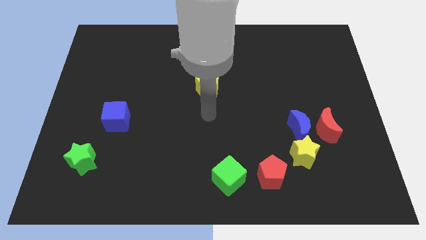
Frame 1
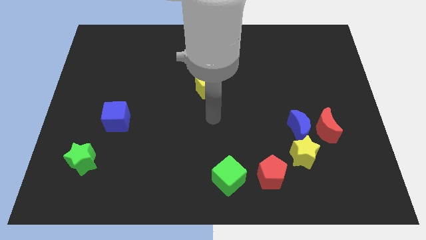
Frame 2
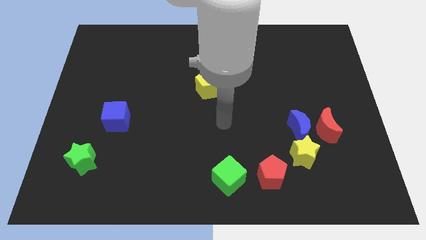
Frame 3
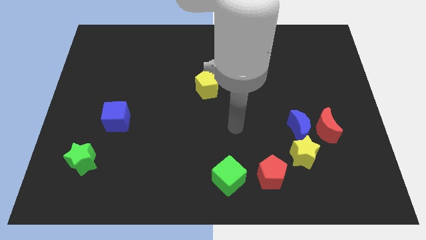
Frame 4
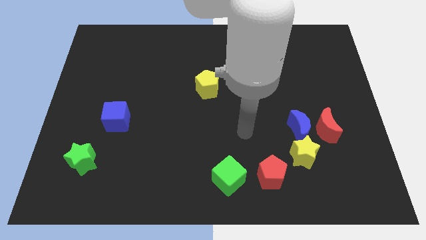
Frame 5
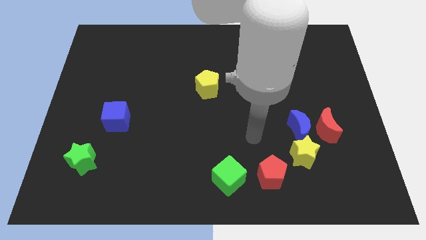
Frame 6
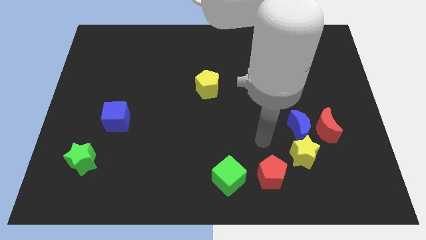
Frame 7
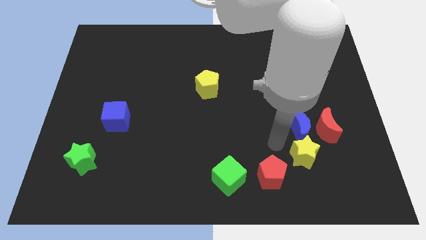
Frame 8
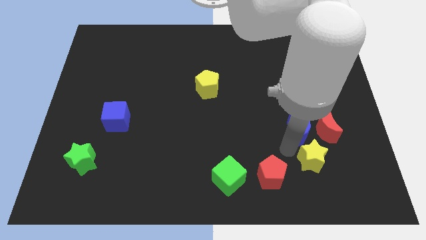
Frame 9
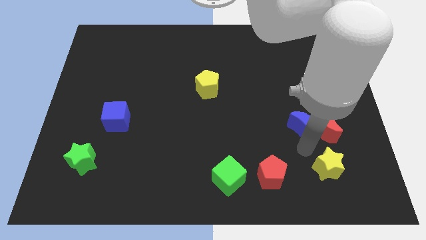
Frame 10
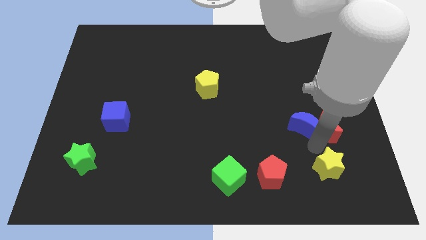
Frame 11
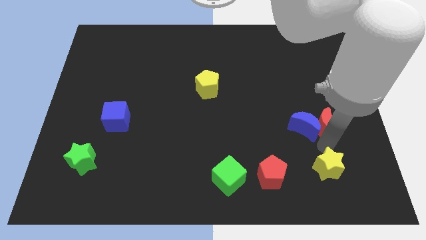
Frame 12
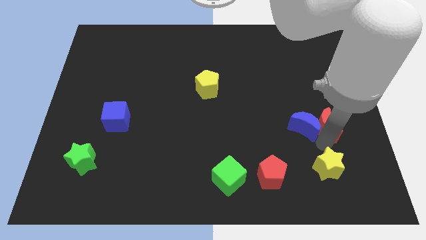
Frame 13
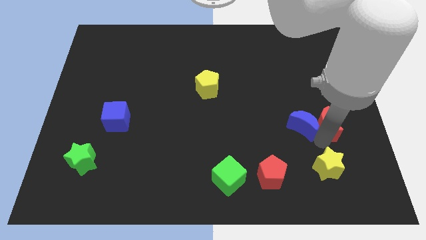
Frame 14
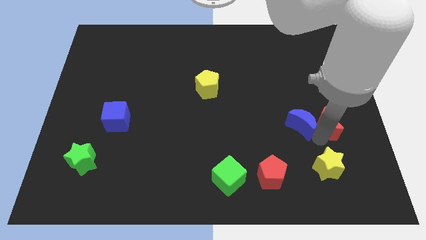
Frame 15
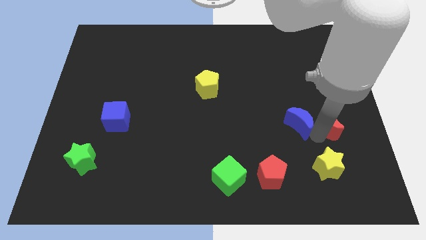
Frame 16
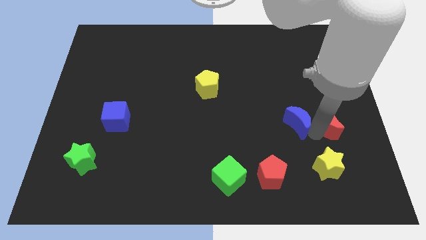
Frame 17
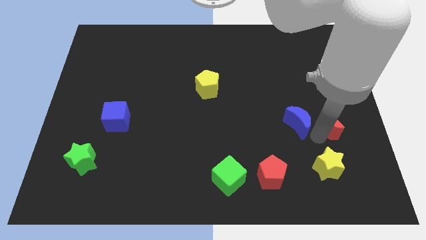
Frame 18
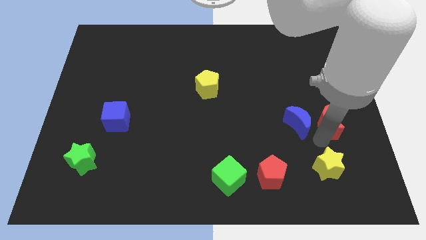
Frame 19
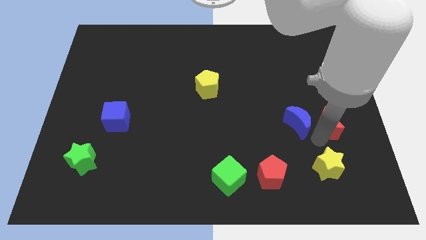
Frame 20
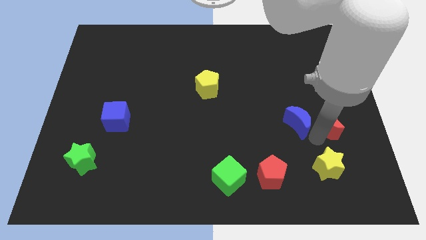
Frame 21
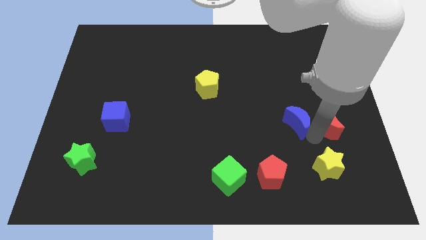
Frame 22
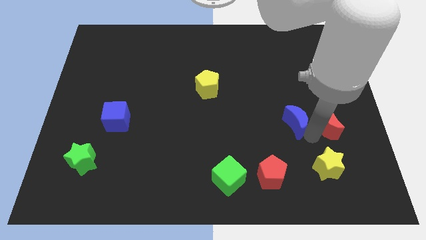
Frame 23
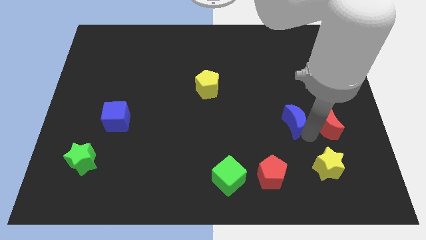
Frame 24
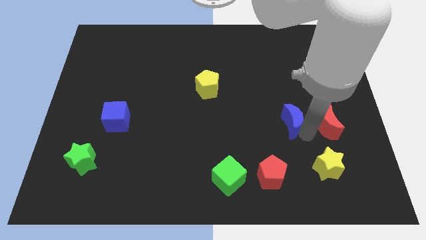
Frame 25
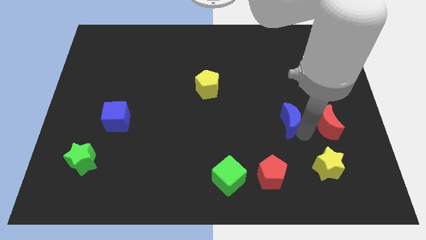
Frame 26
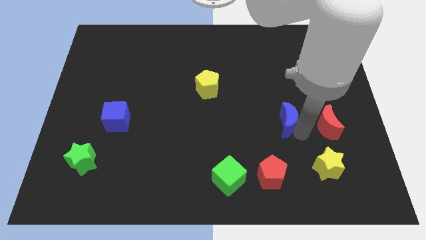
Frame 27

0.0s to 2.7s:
move the blue moon away from the red moon and yellow star

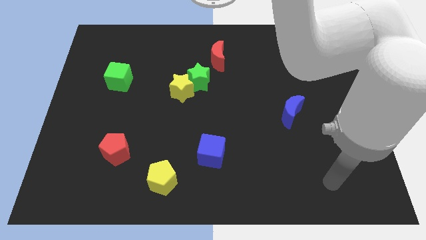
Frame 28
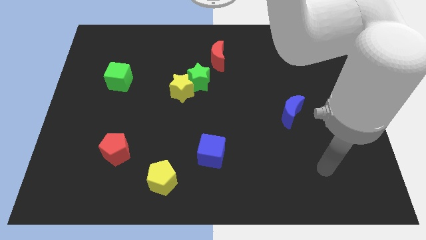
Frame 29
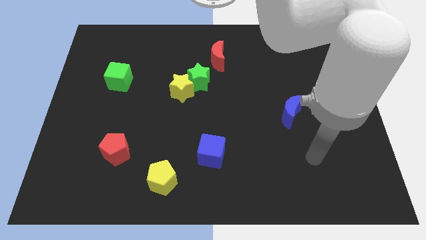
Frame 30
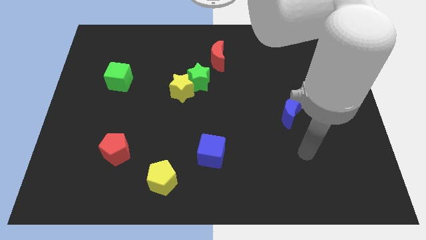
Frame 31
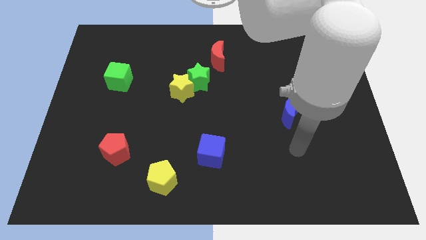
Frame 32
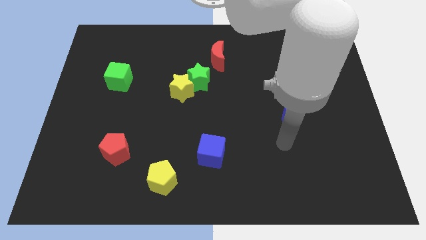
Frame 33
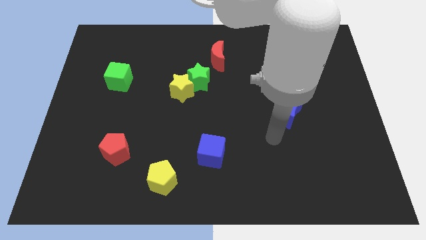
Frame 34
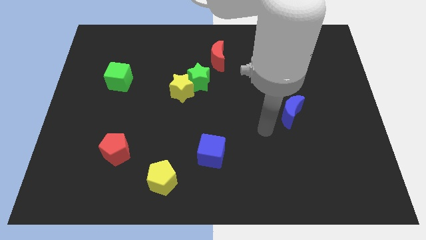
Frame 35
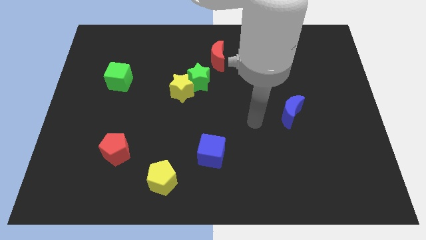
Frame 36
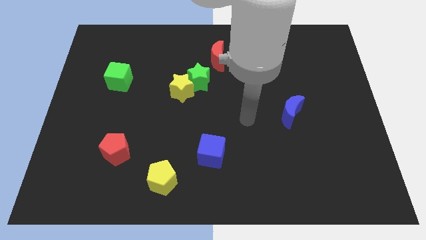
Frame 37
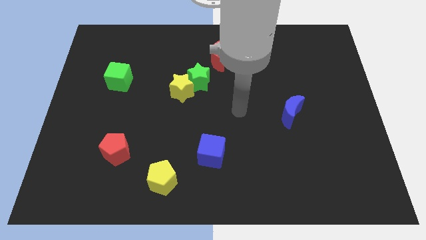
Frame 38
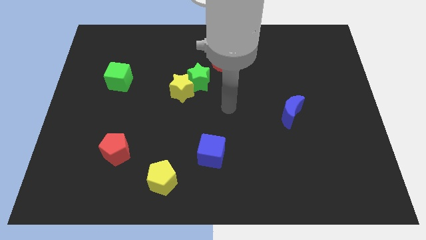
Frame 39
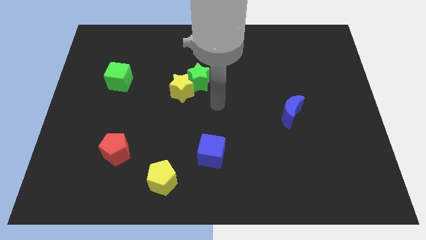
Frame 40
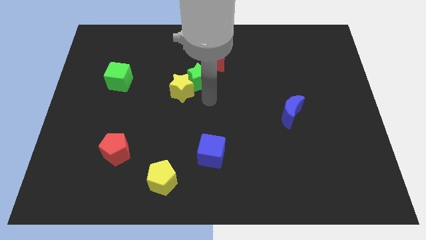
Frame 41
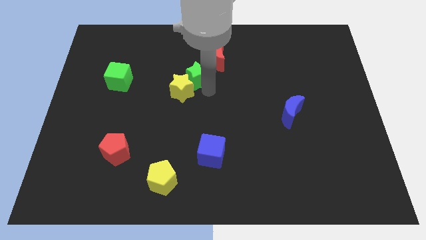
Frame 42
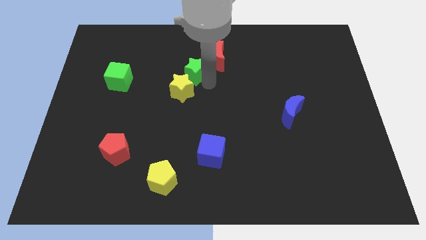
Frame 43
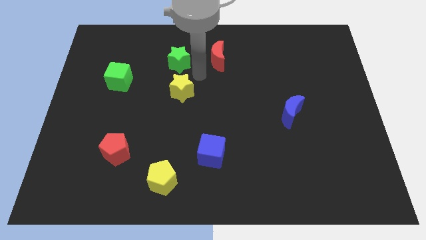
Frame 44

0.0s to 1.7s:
separate the yellow star from the green star

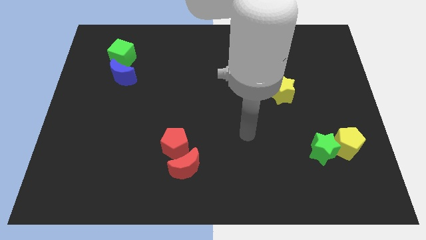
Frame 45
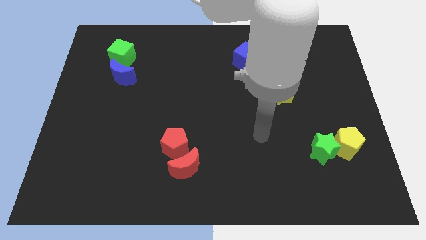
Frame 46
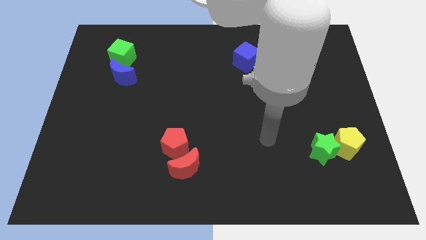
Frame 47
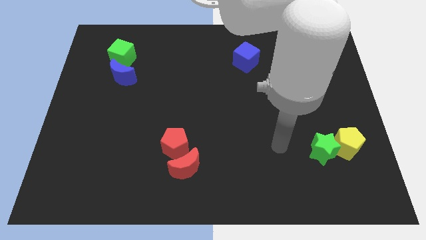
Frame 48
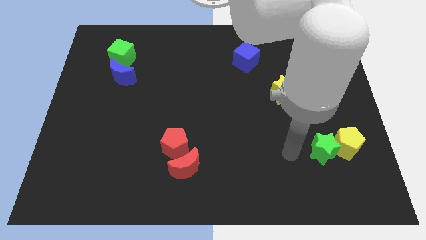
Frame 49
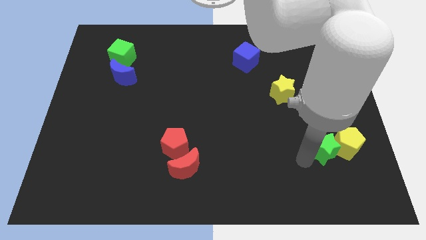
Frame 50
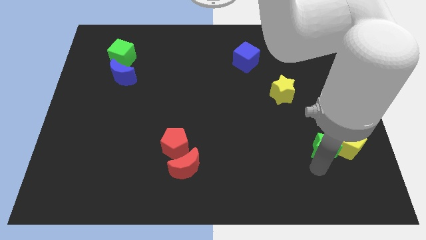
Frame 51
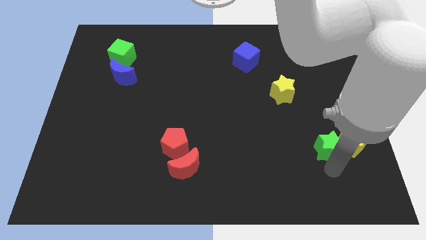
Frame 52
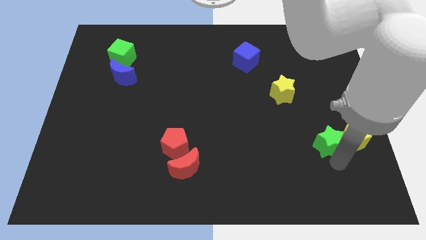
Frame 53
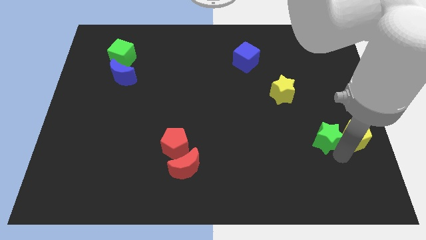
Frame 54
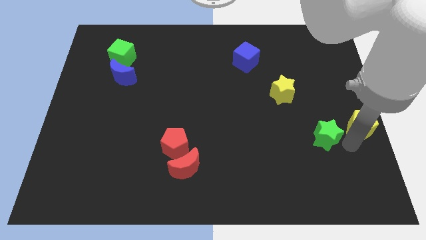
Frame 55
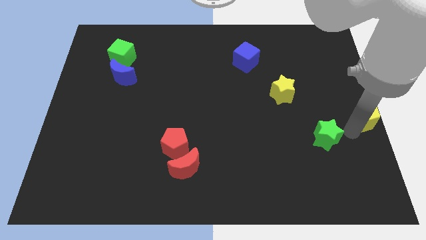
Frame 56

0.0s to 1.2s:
move the green star away from the yellow pentagon

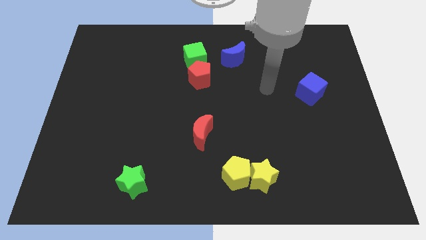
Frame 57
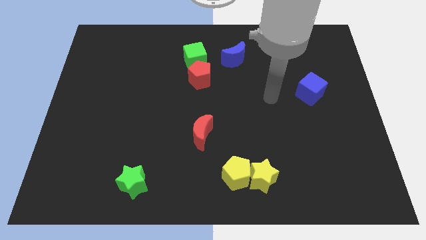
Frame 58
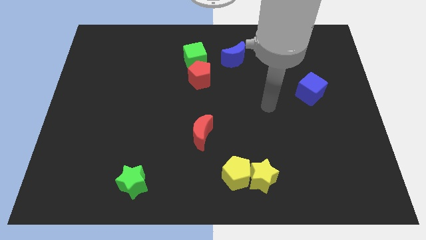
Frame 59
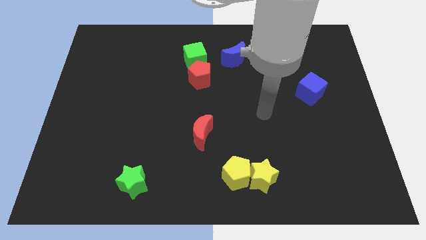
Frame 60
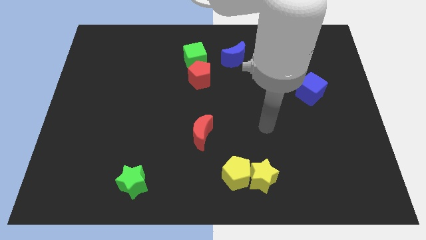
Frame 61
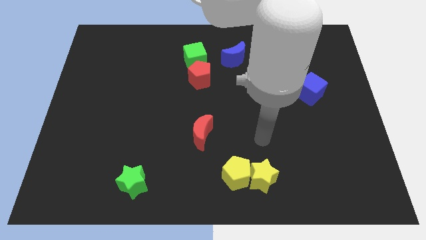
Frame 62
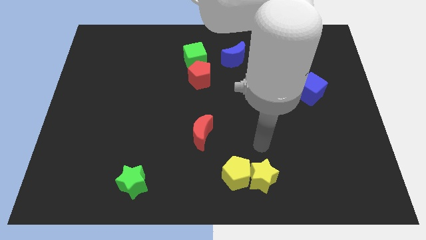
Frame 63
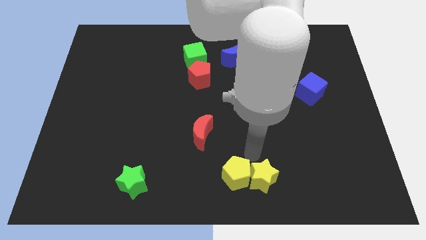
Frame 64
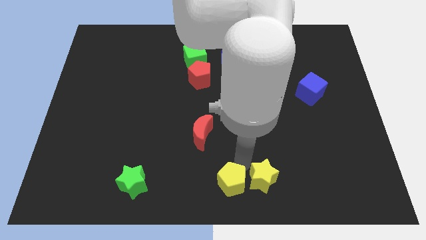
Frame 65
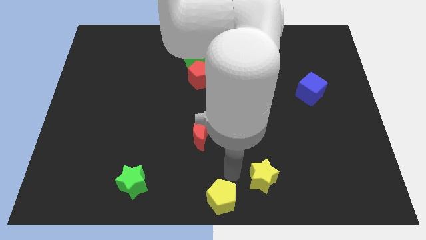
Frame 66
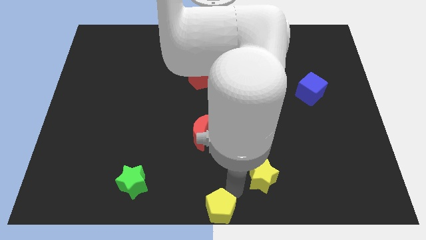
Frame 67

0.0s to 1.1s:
separate the yellow star from the yellow pentagon

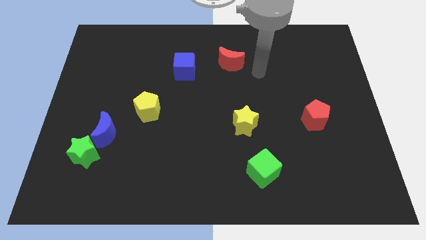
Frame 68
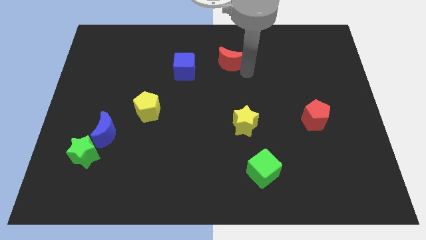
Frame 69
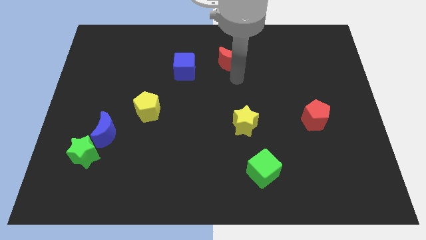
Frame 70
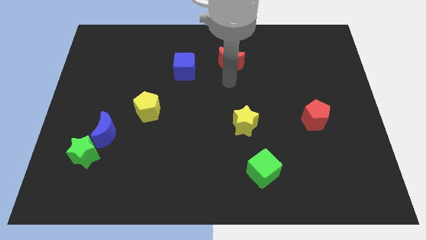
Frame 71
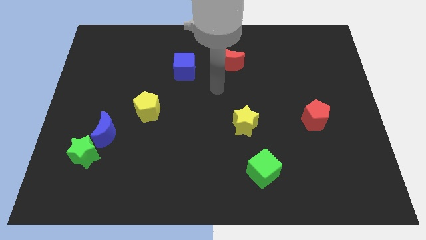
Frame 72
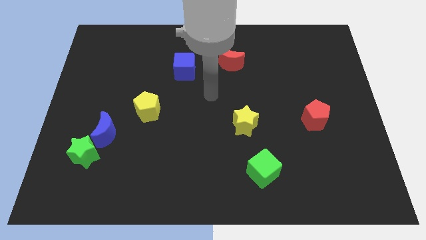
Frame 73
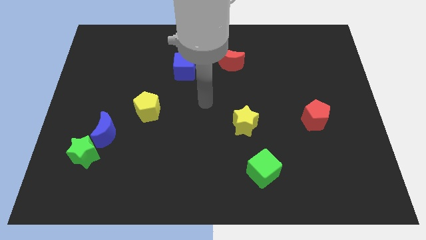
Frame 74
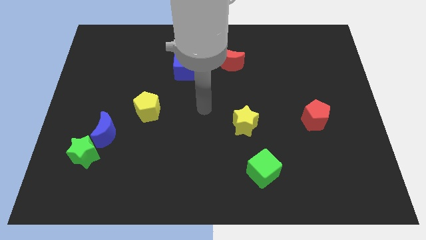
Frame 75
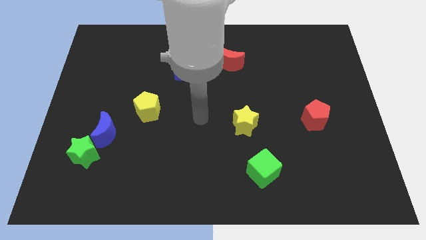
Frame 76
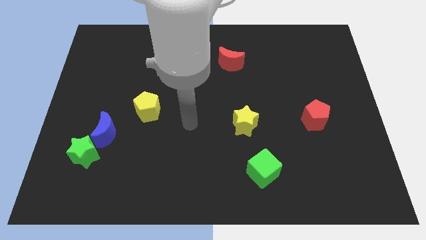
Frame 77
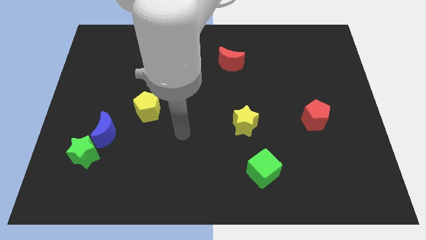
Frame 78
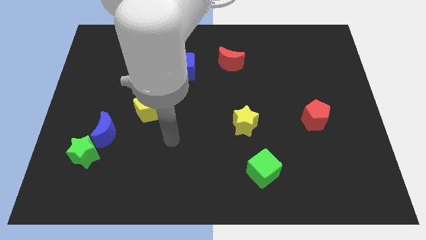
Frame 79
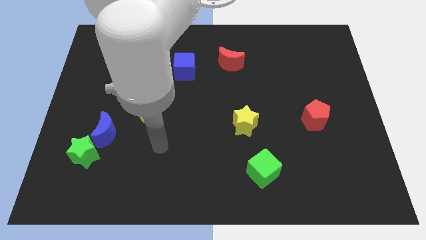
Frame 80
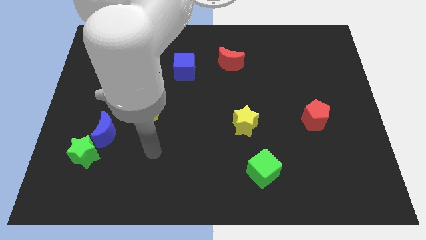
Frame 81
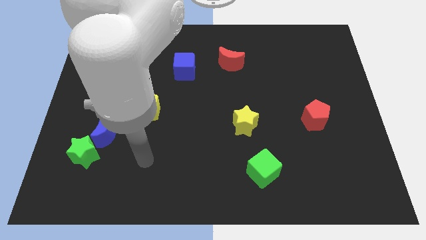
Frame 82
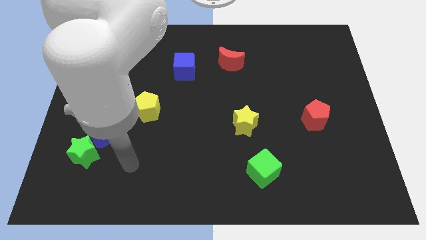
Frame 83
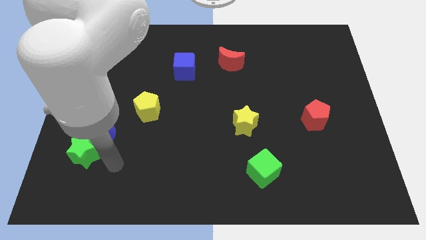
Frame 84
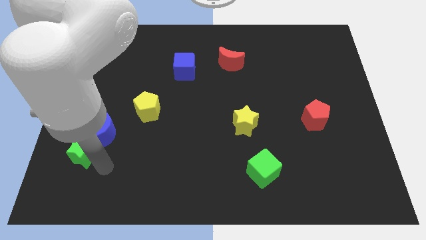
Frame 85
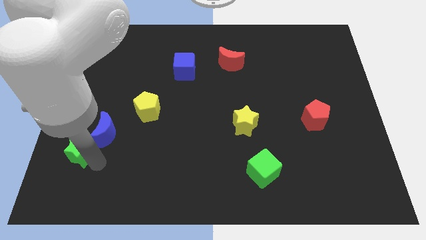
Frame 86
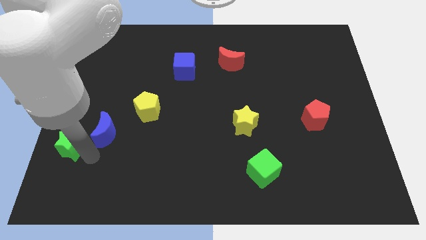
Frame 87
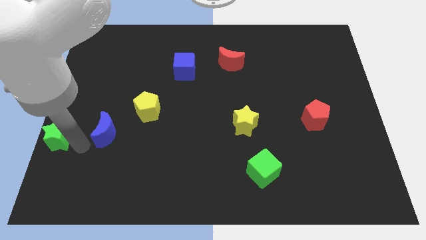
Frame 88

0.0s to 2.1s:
separate the blue moon from the green star

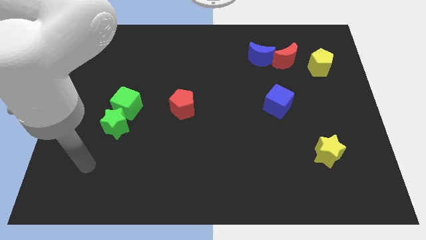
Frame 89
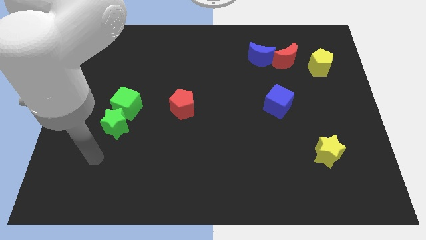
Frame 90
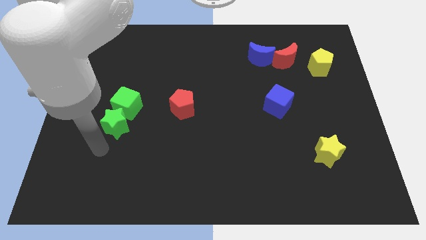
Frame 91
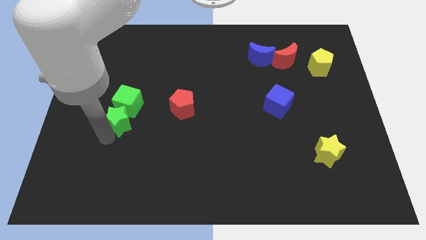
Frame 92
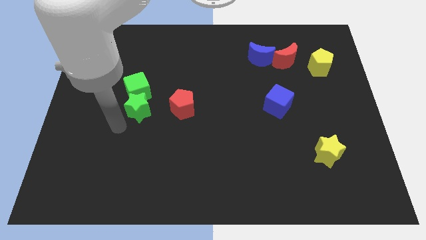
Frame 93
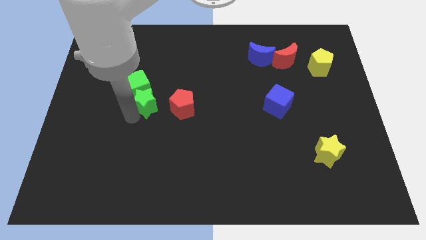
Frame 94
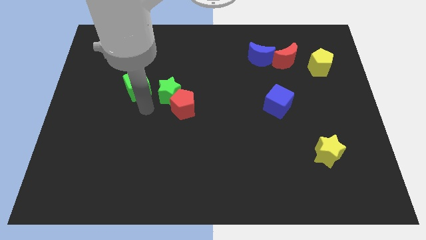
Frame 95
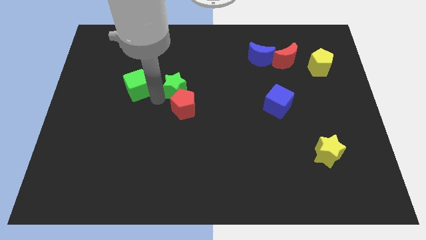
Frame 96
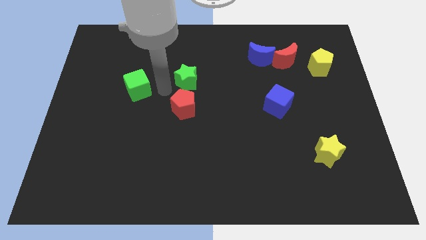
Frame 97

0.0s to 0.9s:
separate the green cube from the green star
